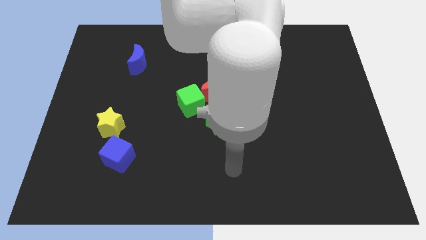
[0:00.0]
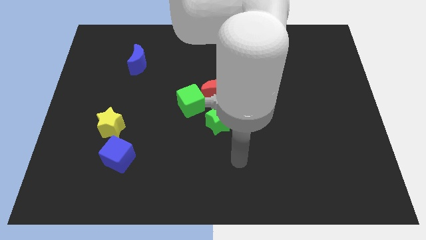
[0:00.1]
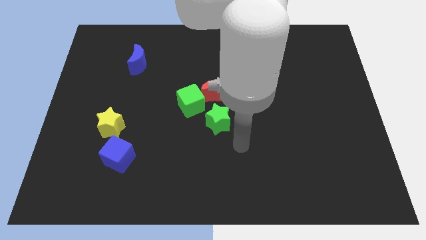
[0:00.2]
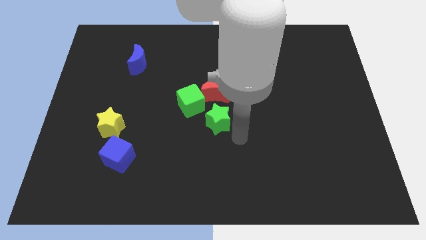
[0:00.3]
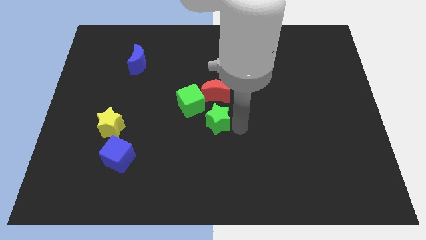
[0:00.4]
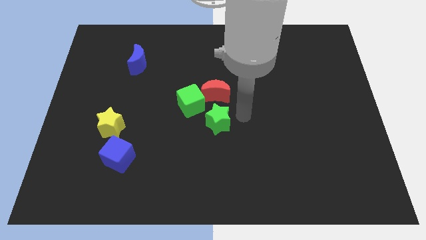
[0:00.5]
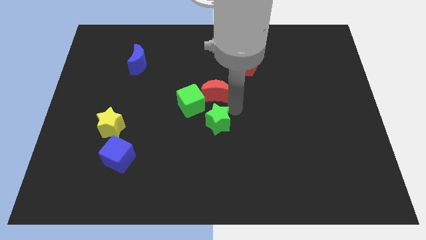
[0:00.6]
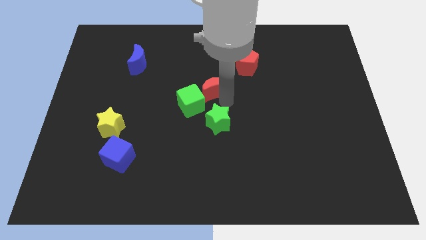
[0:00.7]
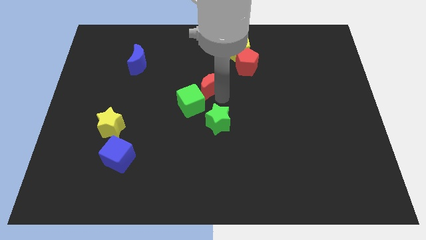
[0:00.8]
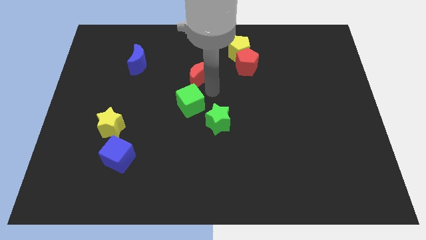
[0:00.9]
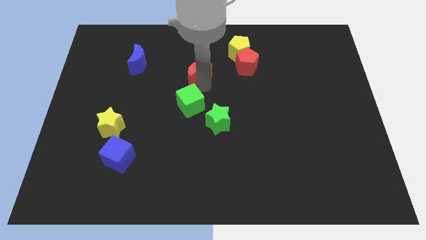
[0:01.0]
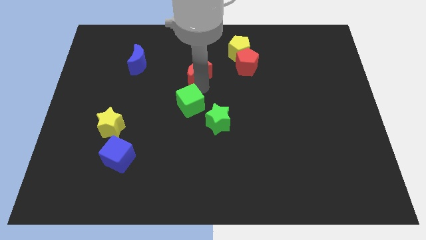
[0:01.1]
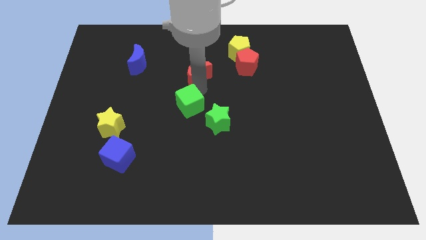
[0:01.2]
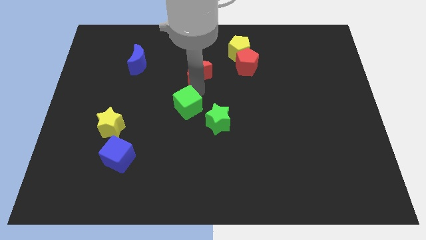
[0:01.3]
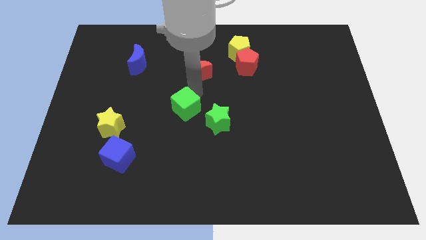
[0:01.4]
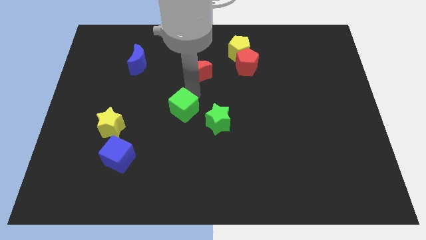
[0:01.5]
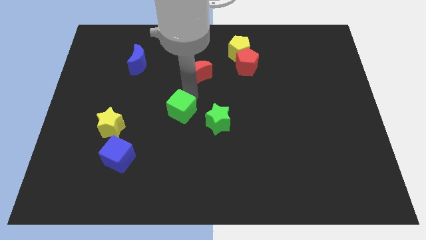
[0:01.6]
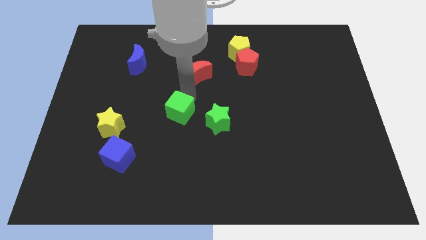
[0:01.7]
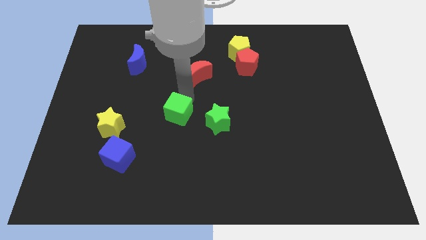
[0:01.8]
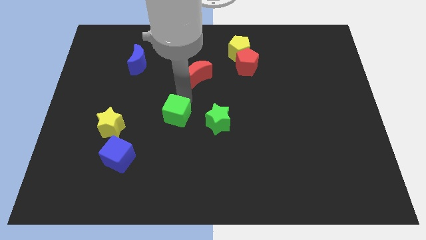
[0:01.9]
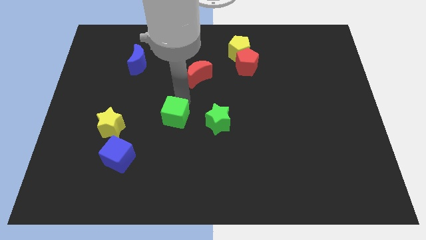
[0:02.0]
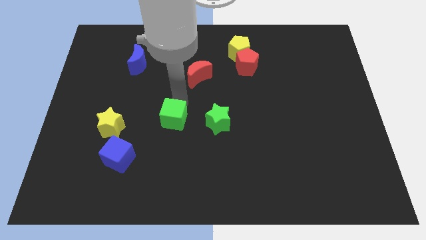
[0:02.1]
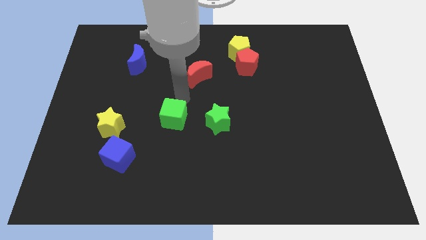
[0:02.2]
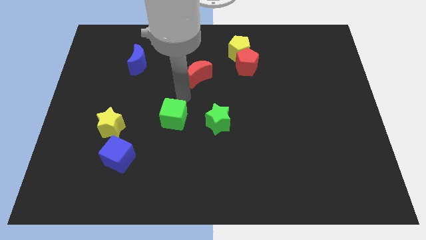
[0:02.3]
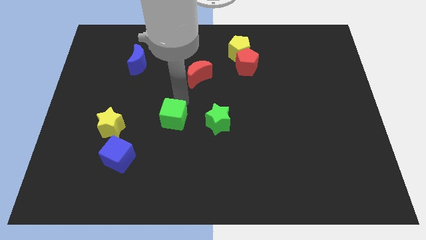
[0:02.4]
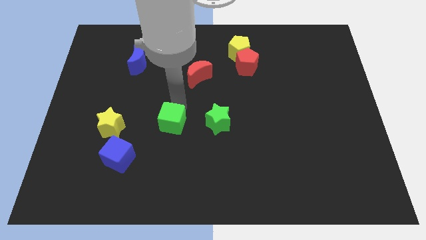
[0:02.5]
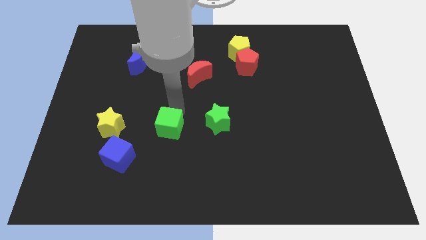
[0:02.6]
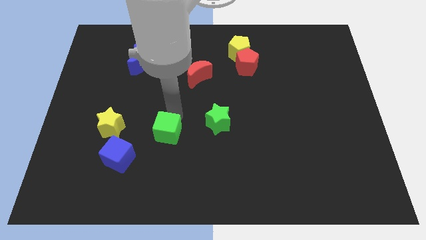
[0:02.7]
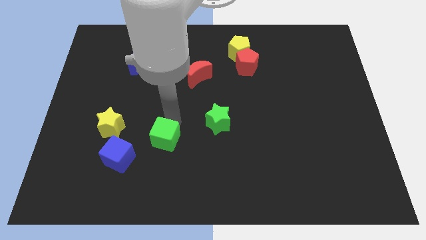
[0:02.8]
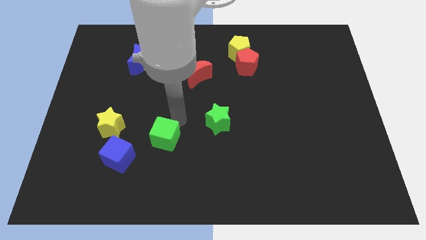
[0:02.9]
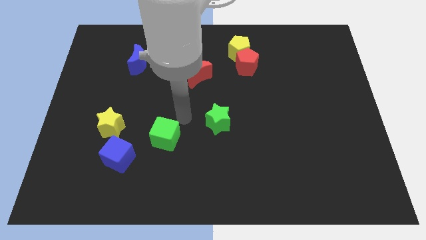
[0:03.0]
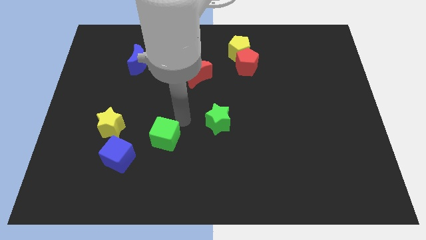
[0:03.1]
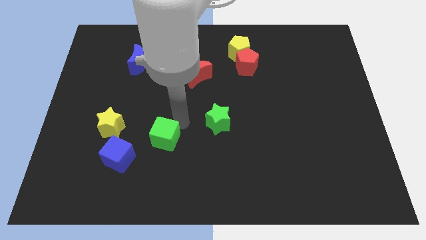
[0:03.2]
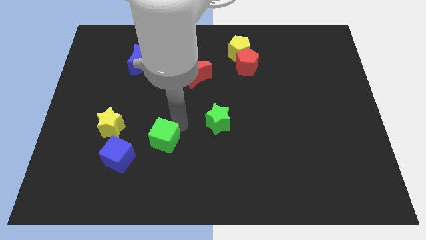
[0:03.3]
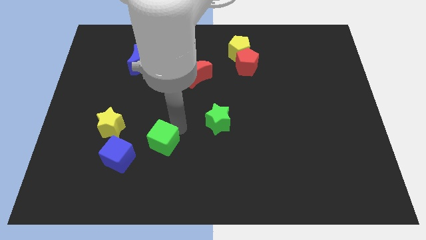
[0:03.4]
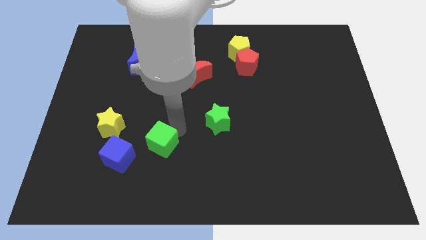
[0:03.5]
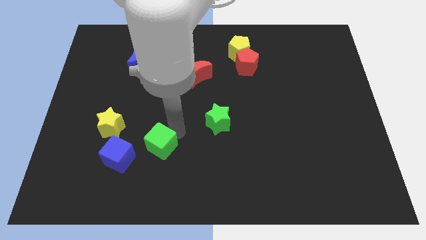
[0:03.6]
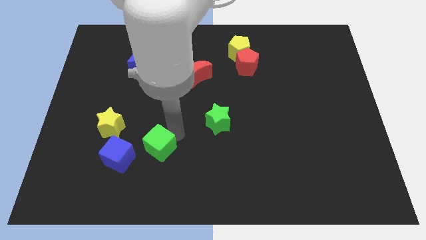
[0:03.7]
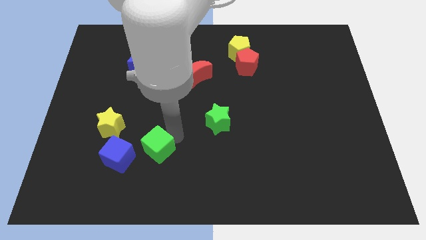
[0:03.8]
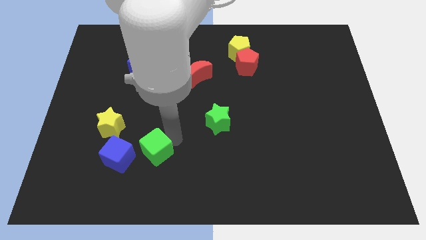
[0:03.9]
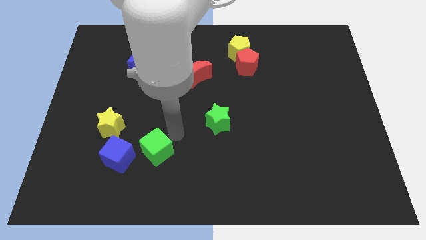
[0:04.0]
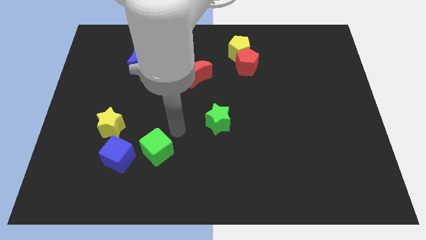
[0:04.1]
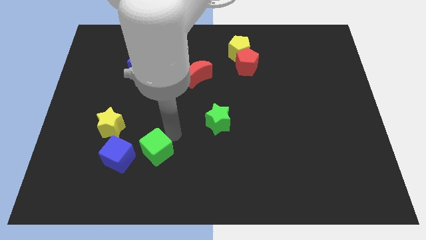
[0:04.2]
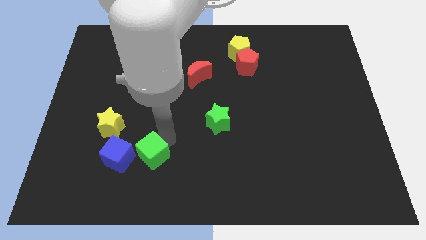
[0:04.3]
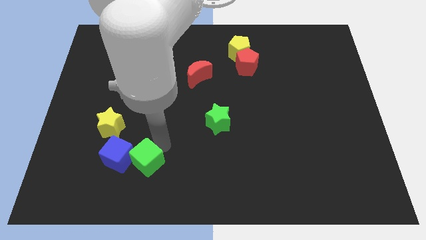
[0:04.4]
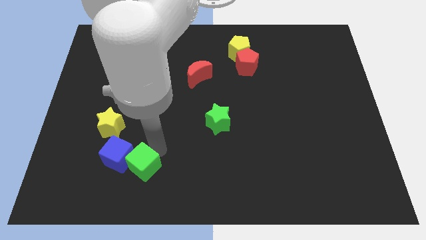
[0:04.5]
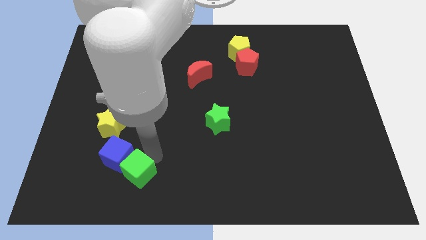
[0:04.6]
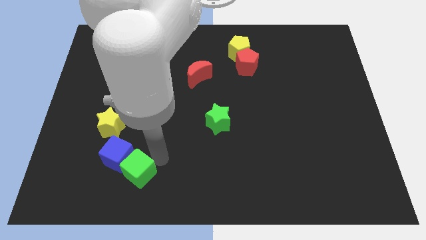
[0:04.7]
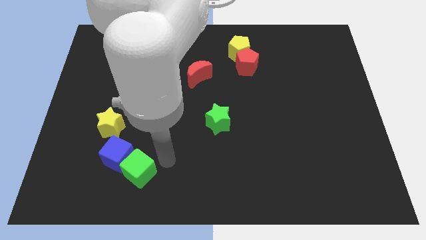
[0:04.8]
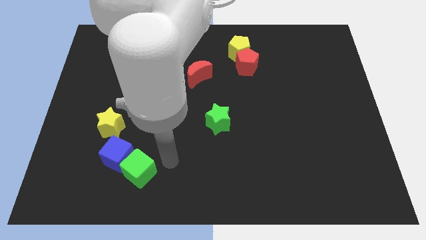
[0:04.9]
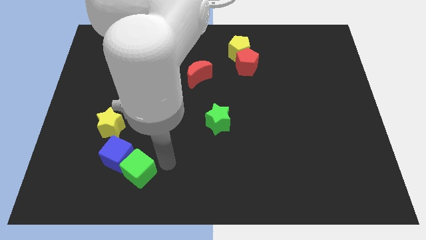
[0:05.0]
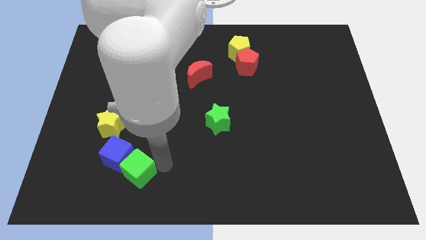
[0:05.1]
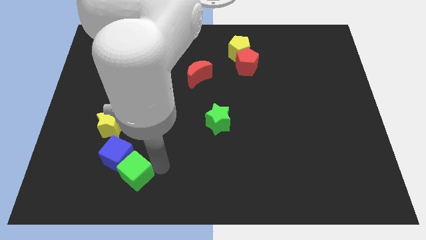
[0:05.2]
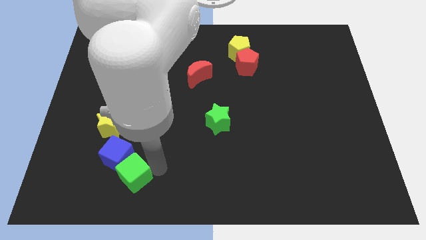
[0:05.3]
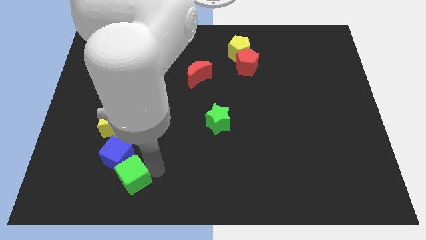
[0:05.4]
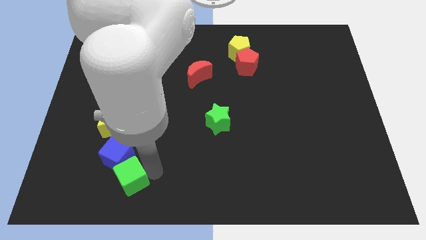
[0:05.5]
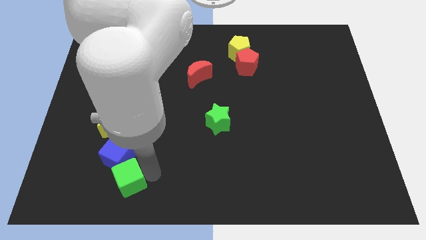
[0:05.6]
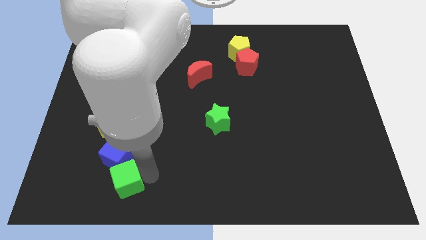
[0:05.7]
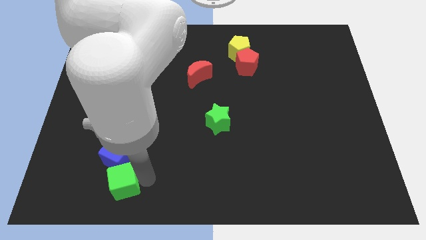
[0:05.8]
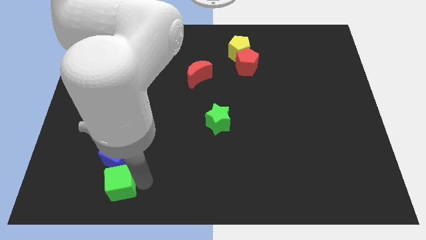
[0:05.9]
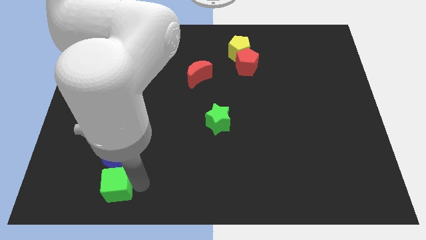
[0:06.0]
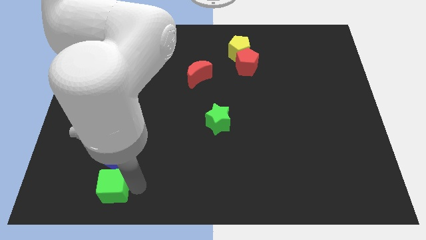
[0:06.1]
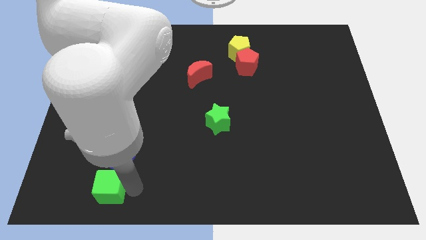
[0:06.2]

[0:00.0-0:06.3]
push the green cube diagonally down and to the left of the blue cube
